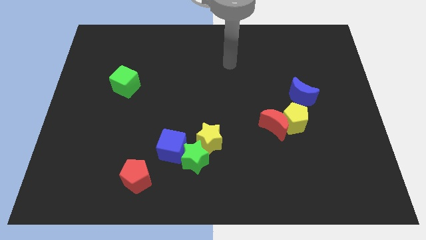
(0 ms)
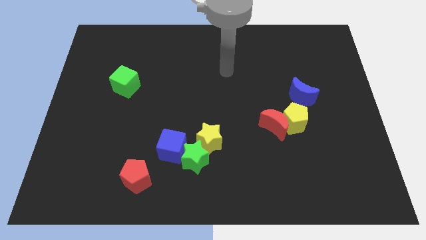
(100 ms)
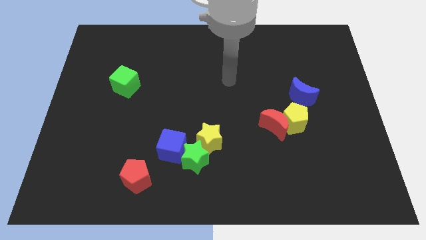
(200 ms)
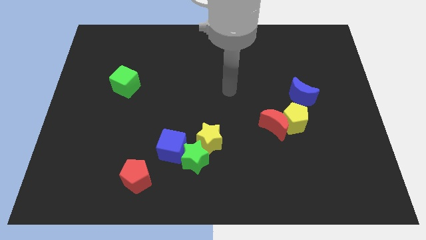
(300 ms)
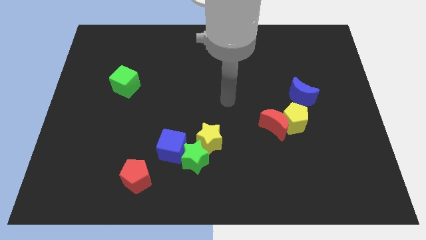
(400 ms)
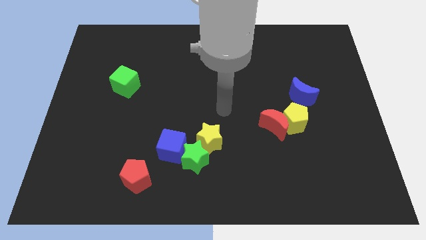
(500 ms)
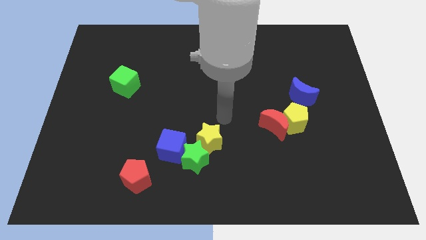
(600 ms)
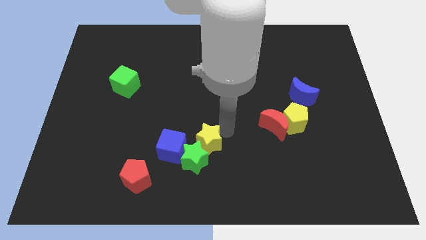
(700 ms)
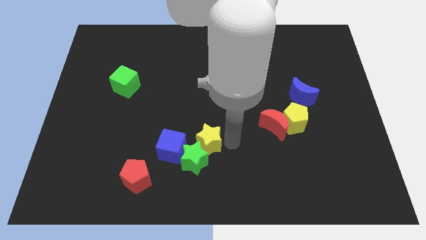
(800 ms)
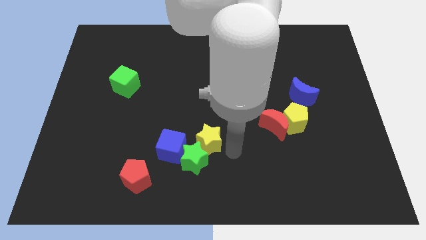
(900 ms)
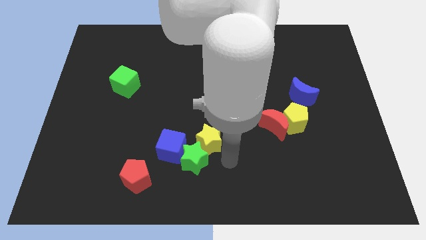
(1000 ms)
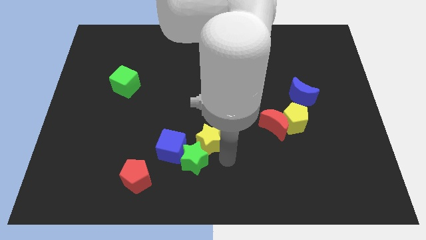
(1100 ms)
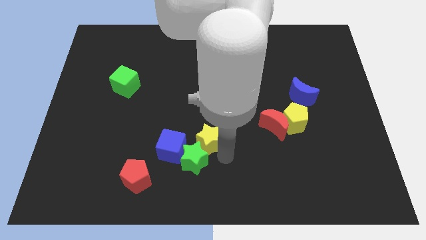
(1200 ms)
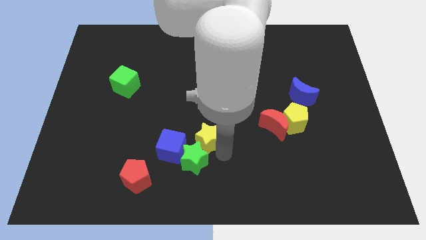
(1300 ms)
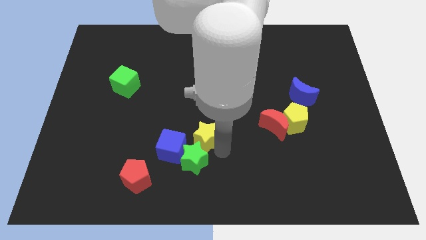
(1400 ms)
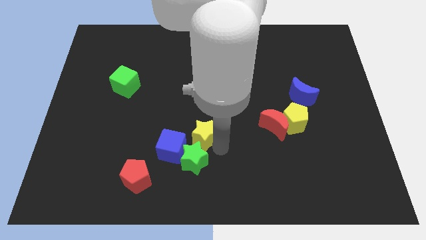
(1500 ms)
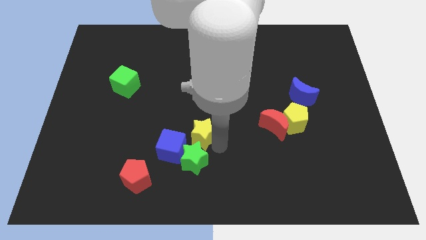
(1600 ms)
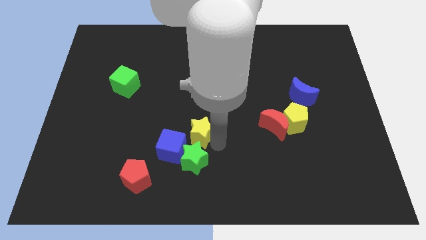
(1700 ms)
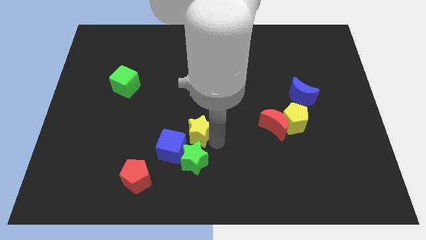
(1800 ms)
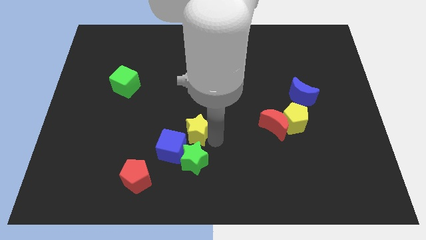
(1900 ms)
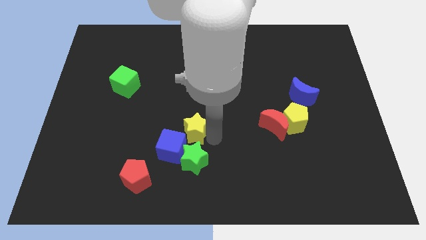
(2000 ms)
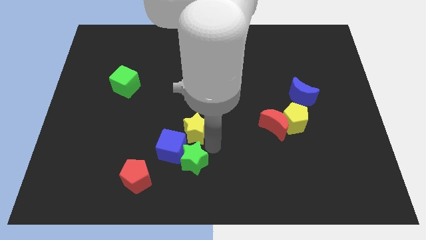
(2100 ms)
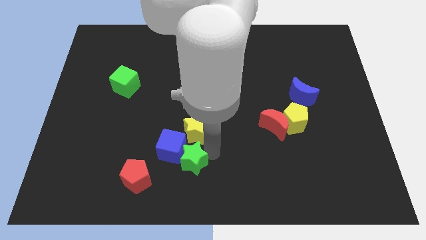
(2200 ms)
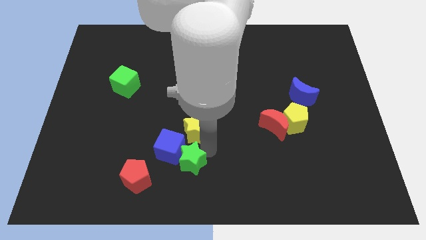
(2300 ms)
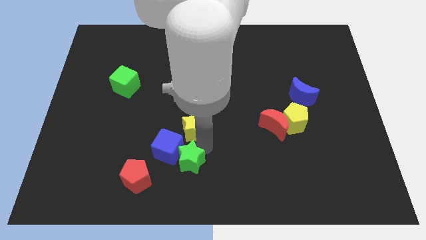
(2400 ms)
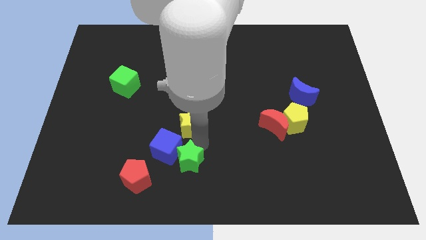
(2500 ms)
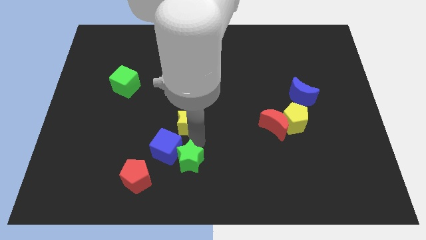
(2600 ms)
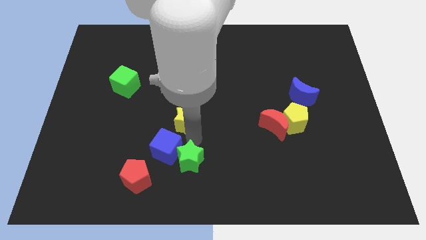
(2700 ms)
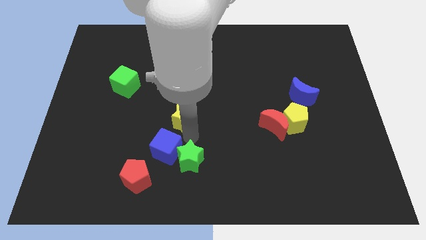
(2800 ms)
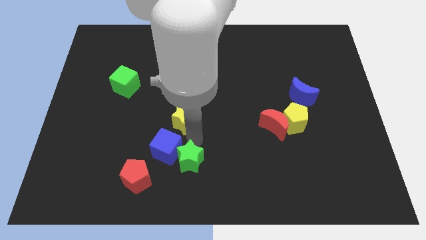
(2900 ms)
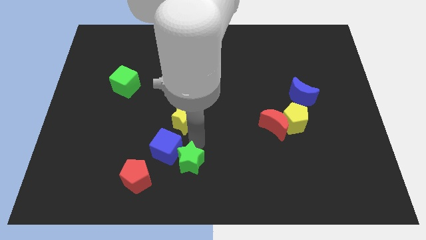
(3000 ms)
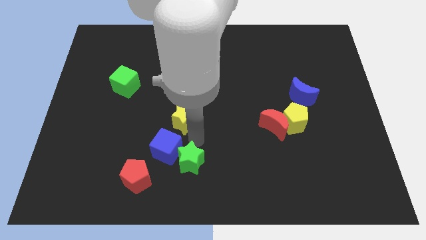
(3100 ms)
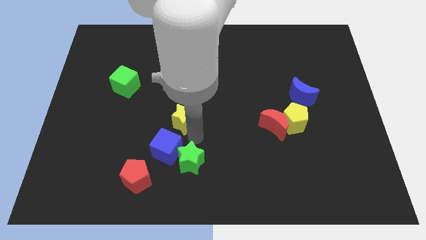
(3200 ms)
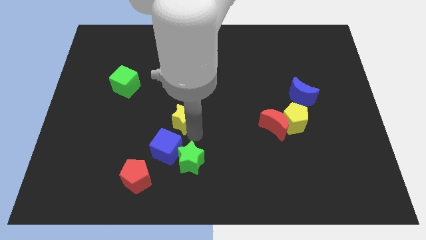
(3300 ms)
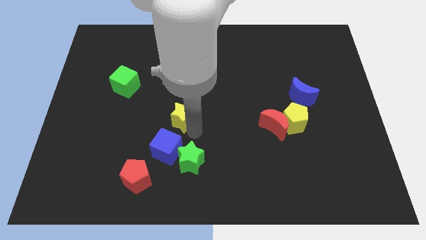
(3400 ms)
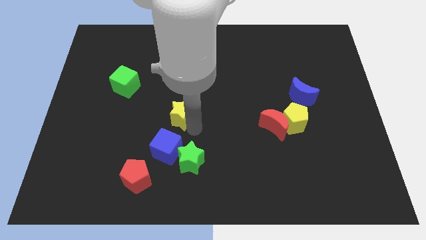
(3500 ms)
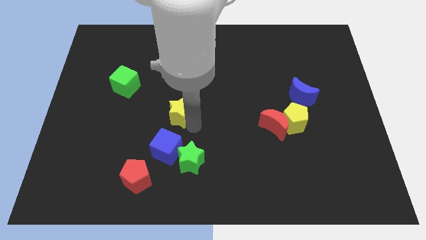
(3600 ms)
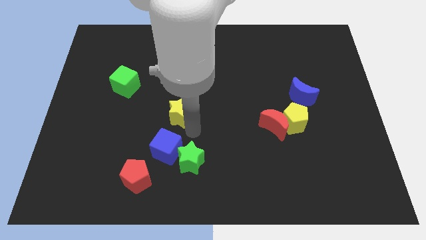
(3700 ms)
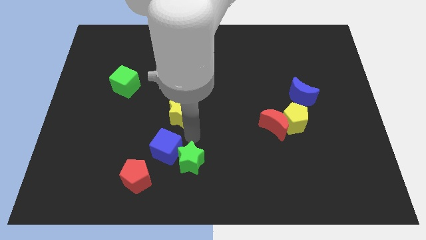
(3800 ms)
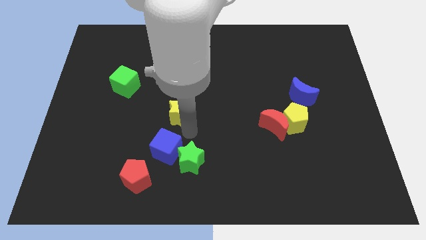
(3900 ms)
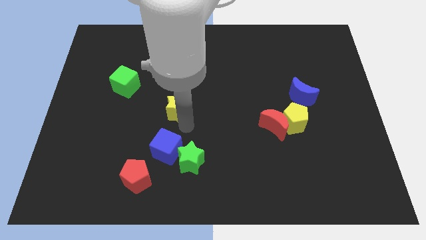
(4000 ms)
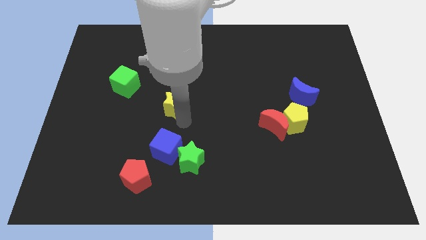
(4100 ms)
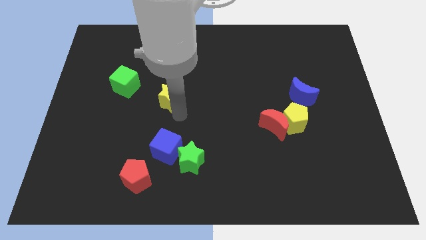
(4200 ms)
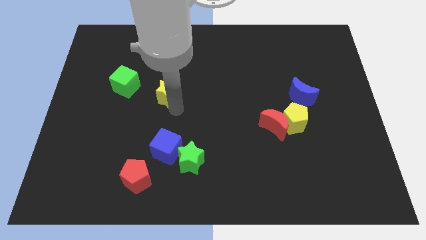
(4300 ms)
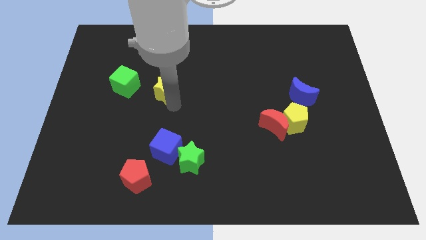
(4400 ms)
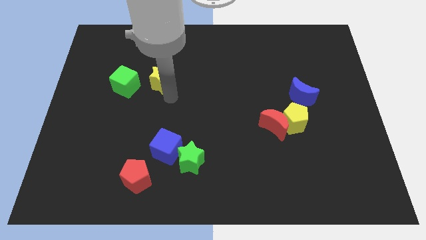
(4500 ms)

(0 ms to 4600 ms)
slide the yellow star diagonally upwards and to the left

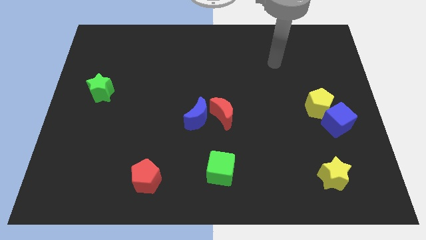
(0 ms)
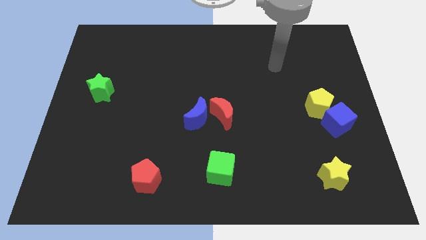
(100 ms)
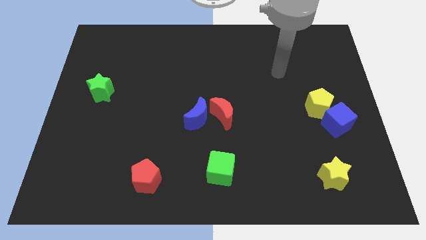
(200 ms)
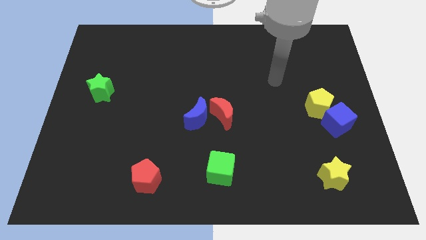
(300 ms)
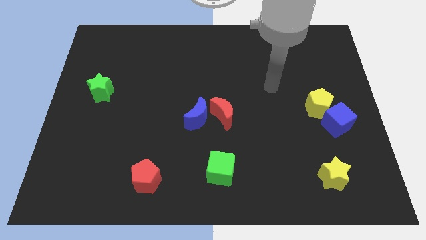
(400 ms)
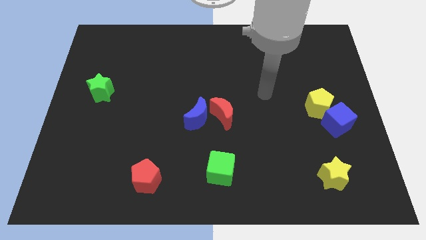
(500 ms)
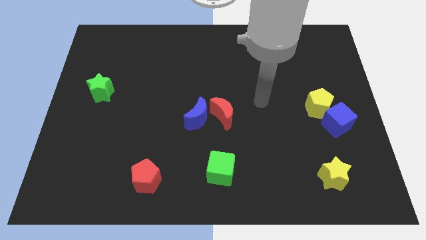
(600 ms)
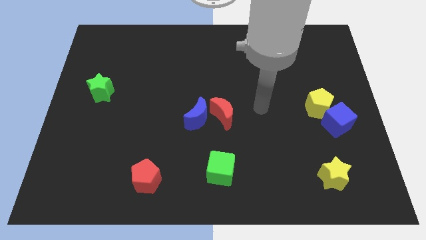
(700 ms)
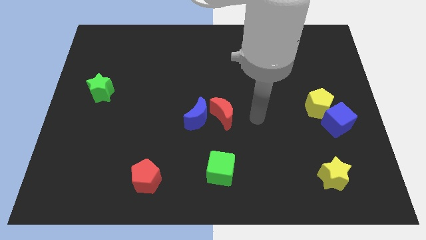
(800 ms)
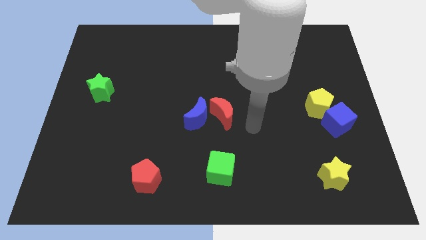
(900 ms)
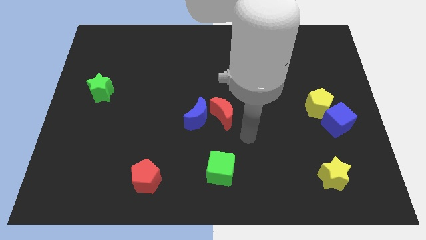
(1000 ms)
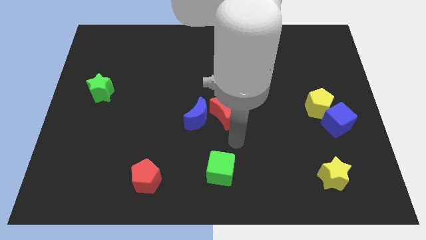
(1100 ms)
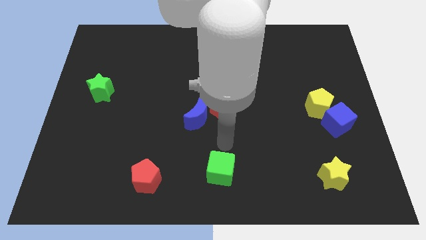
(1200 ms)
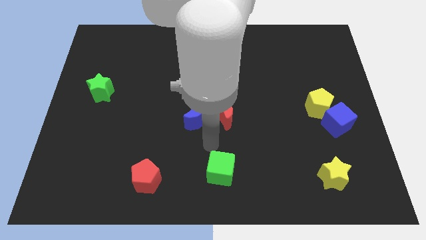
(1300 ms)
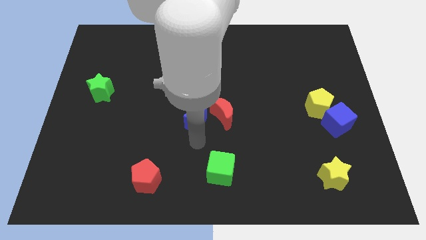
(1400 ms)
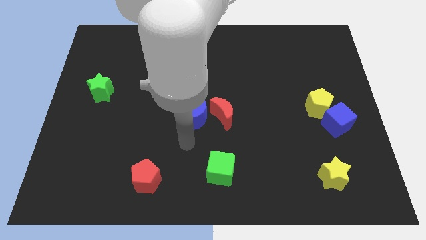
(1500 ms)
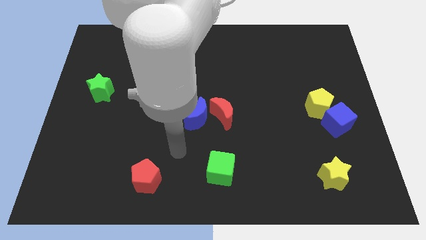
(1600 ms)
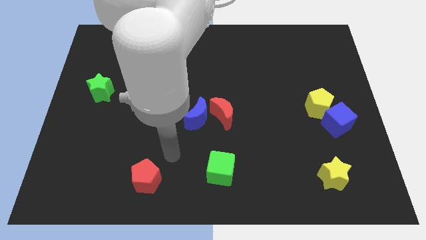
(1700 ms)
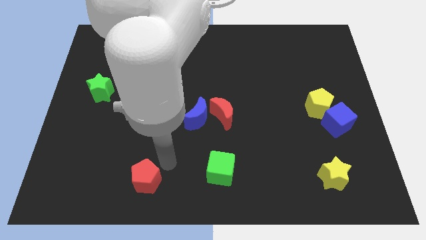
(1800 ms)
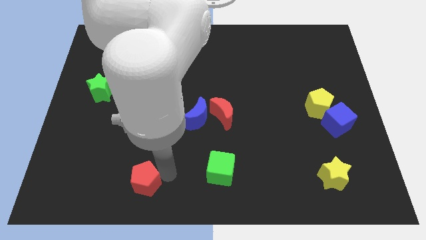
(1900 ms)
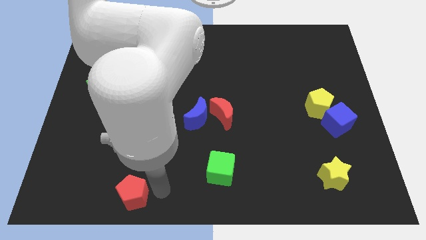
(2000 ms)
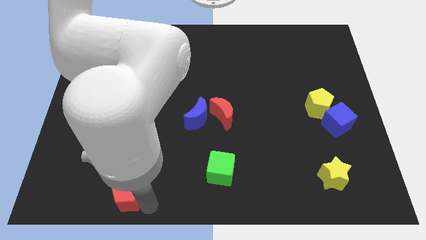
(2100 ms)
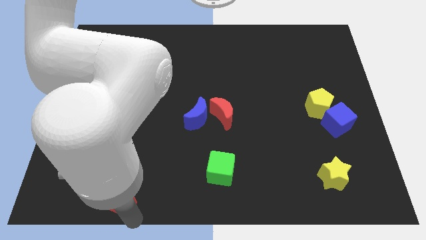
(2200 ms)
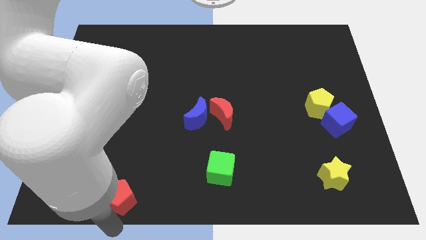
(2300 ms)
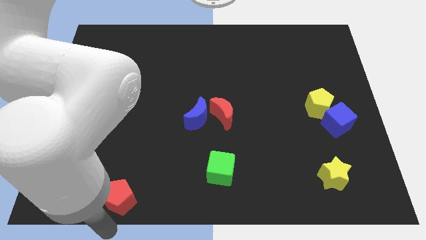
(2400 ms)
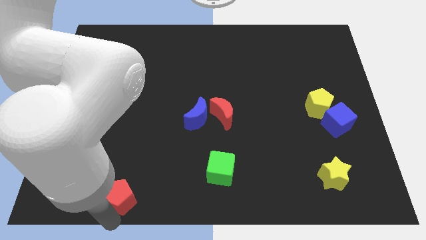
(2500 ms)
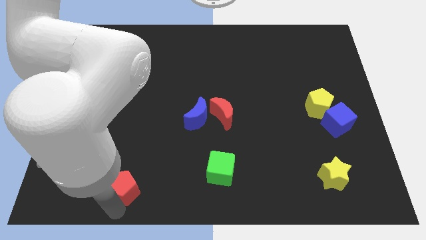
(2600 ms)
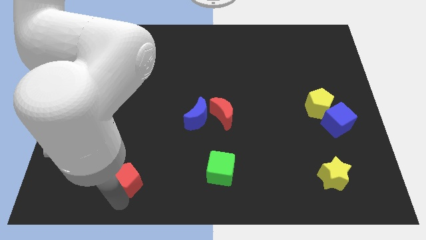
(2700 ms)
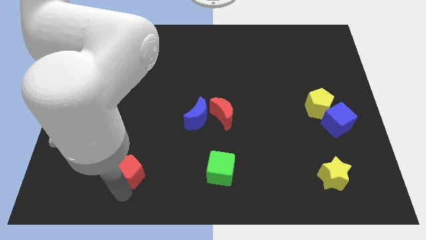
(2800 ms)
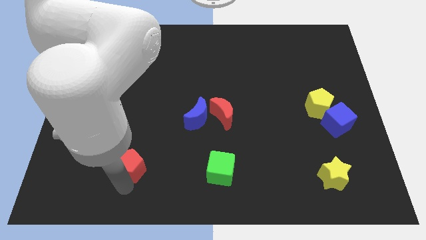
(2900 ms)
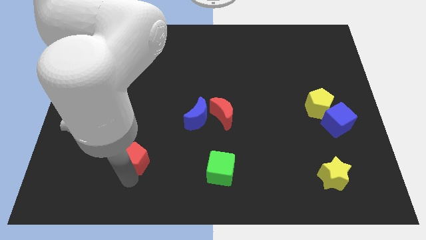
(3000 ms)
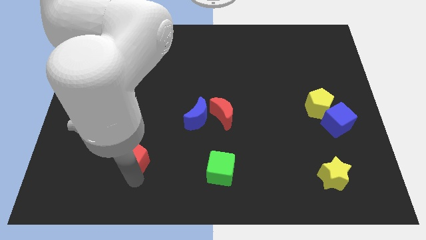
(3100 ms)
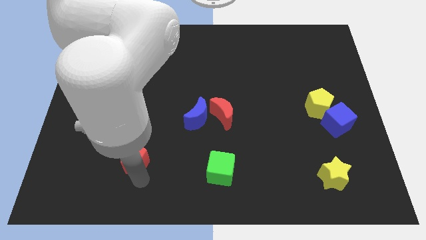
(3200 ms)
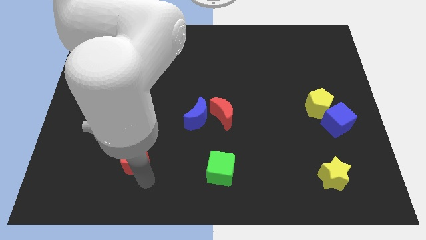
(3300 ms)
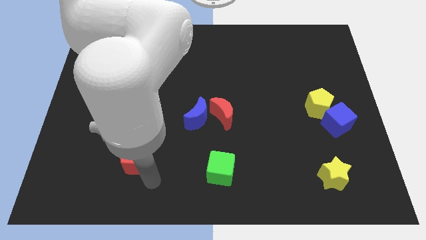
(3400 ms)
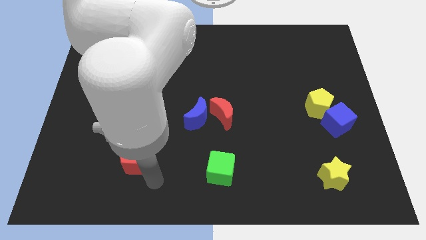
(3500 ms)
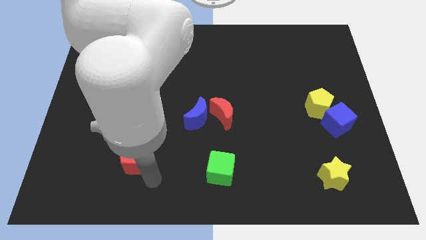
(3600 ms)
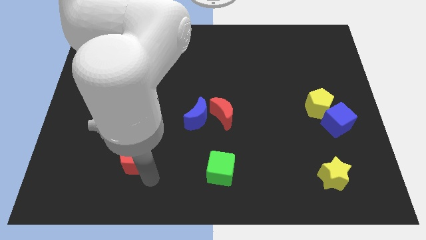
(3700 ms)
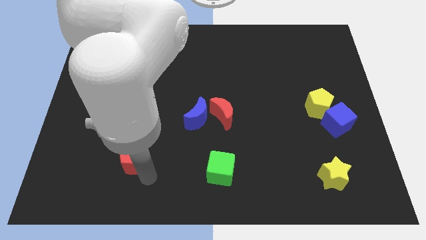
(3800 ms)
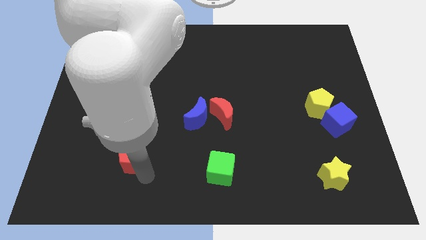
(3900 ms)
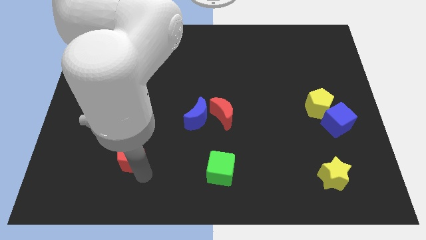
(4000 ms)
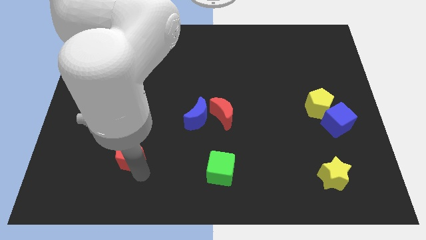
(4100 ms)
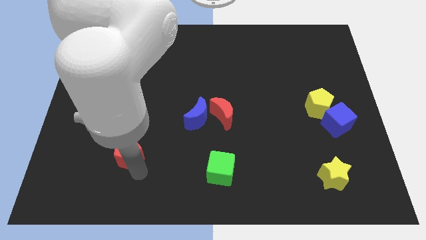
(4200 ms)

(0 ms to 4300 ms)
slightly move the red pentagon upwards and then to the left
